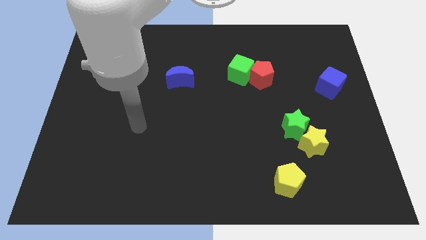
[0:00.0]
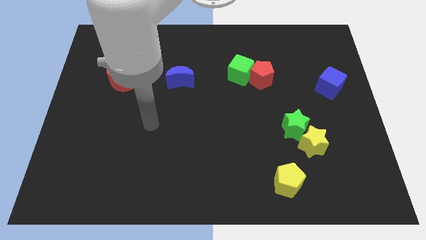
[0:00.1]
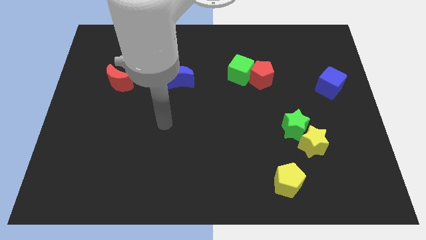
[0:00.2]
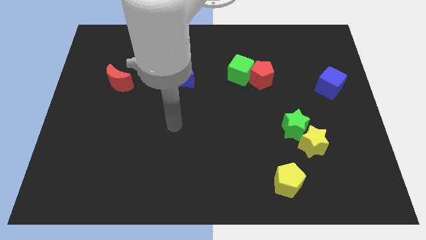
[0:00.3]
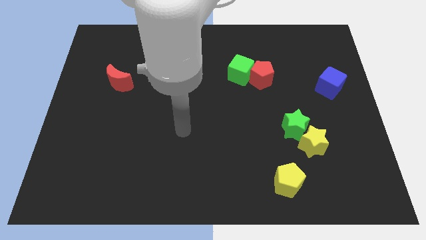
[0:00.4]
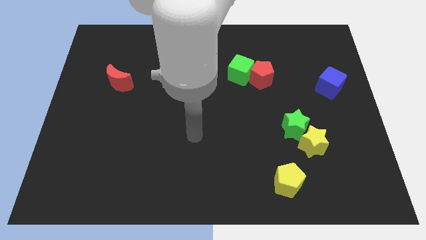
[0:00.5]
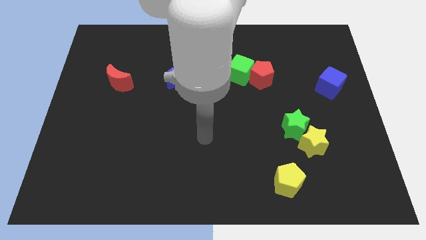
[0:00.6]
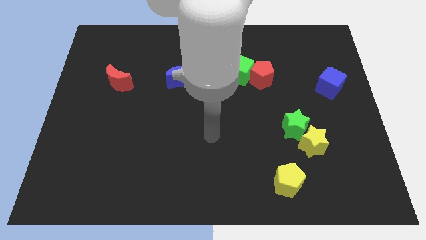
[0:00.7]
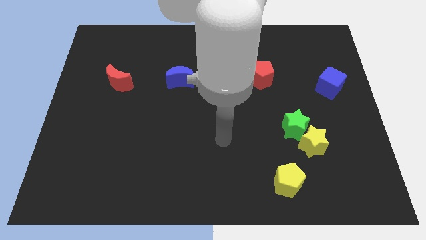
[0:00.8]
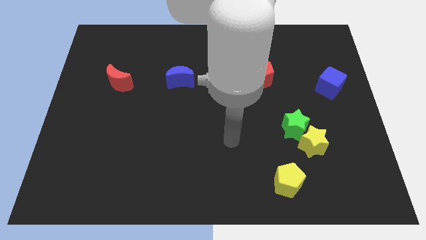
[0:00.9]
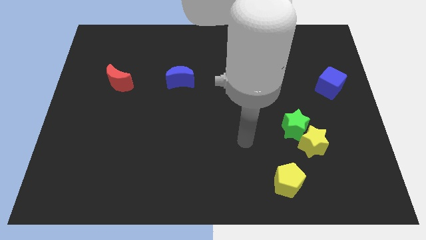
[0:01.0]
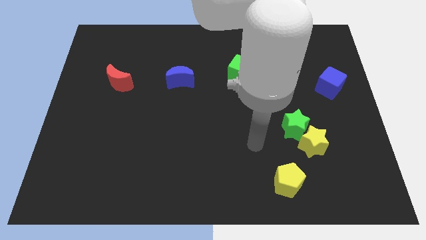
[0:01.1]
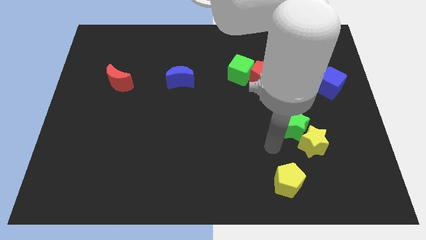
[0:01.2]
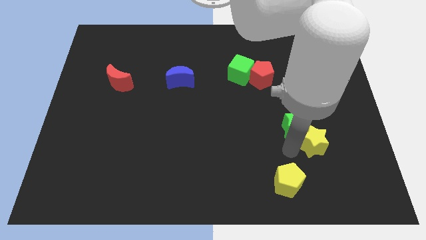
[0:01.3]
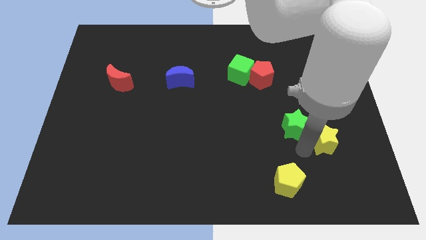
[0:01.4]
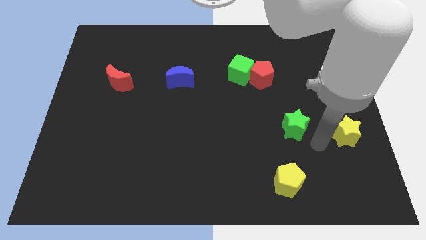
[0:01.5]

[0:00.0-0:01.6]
separate the green star from the yellow star

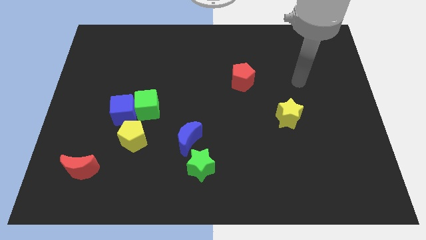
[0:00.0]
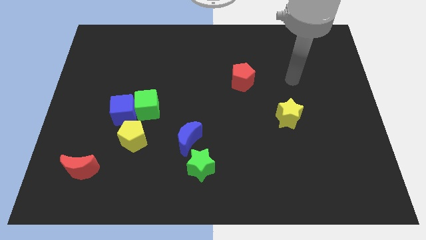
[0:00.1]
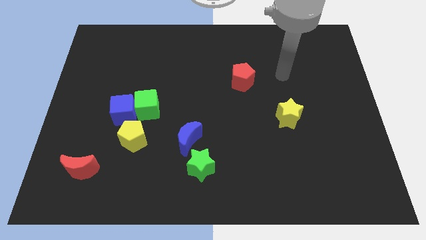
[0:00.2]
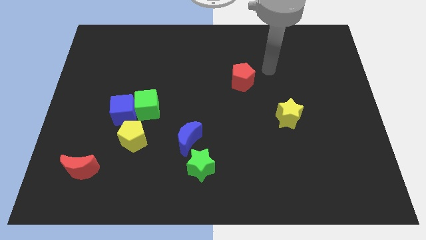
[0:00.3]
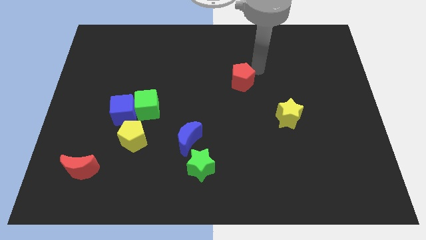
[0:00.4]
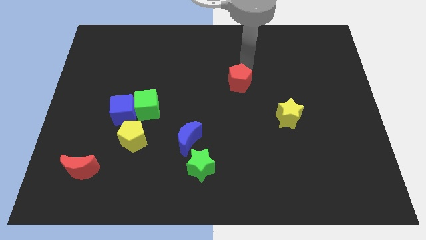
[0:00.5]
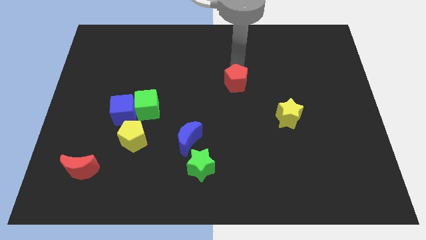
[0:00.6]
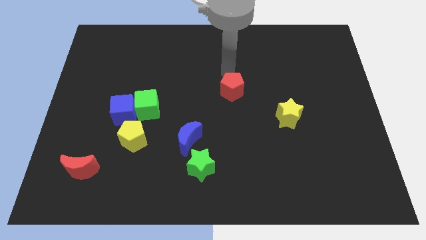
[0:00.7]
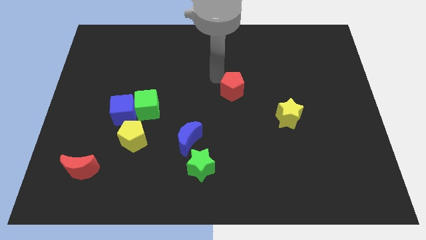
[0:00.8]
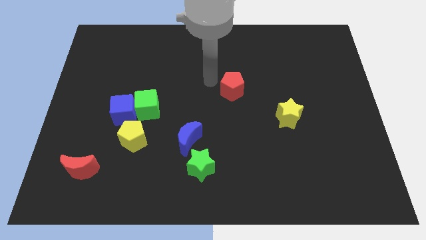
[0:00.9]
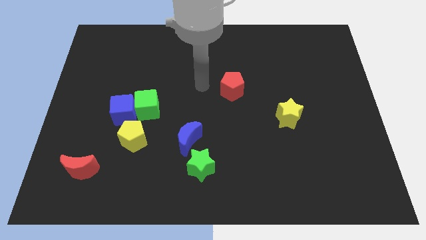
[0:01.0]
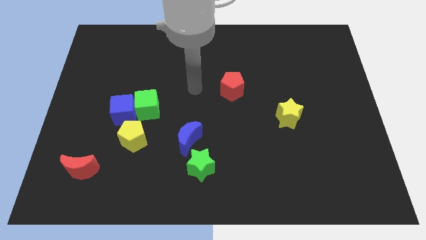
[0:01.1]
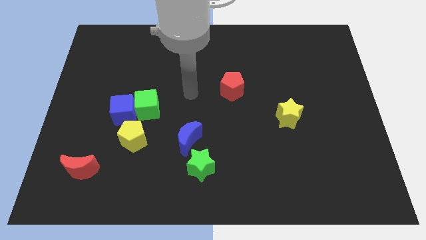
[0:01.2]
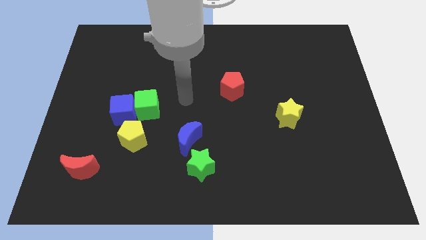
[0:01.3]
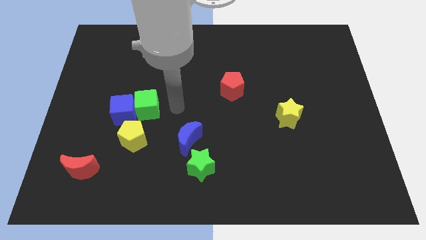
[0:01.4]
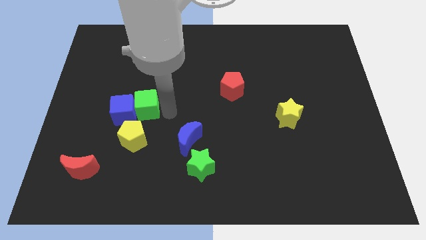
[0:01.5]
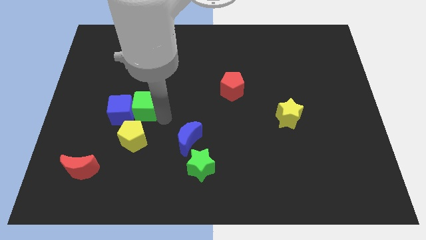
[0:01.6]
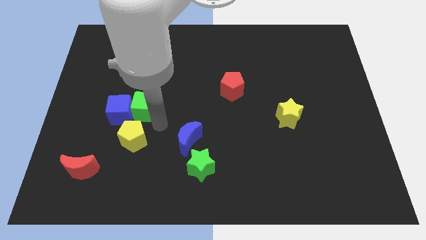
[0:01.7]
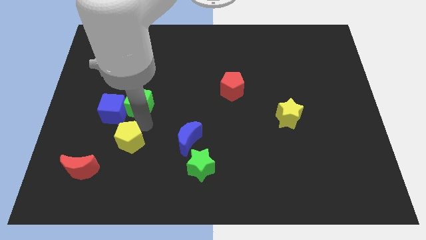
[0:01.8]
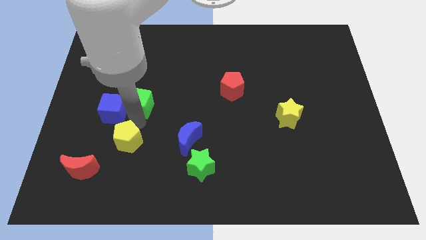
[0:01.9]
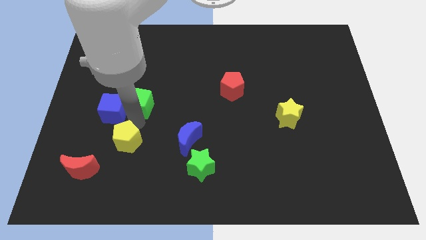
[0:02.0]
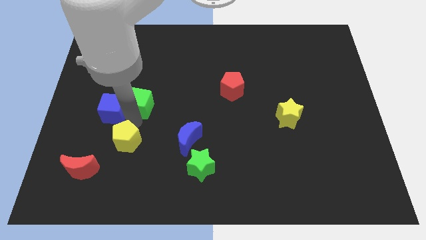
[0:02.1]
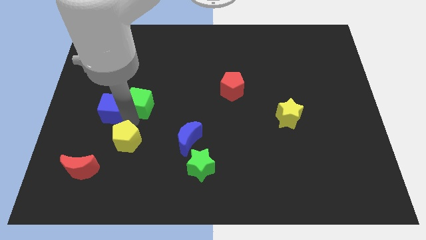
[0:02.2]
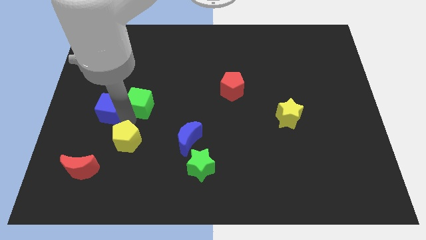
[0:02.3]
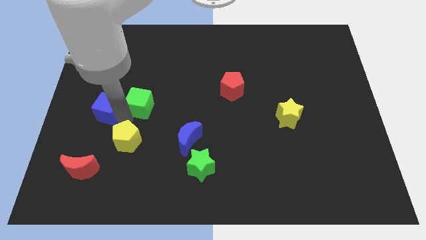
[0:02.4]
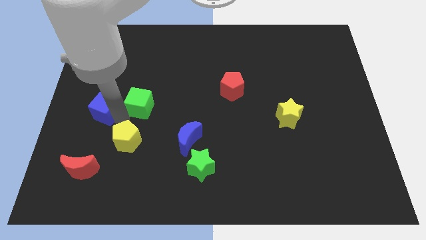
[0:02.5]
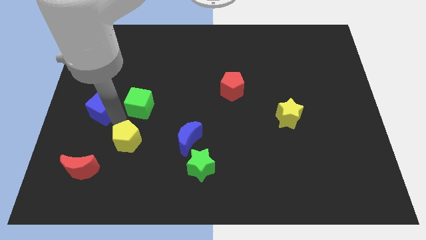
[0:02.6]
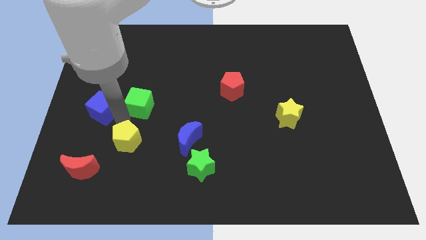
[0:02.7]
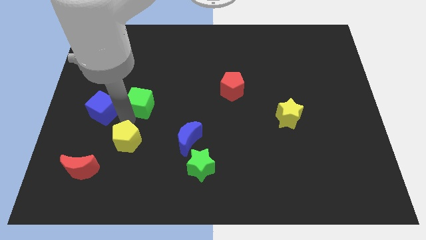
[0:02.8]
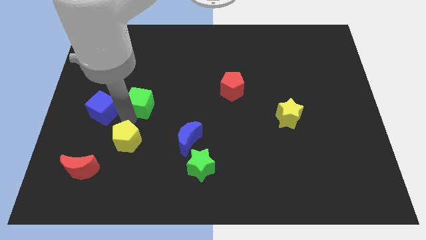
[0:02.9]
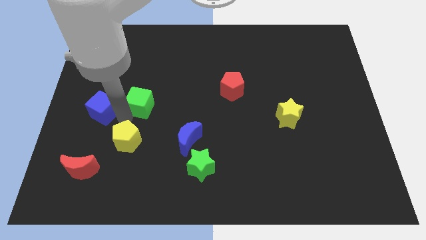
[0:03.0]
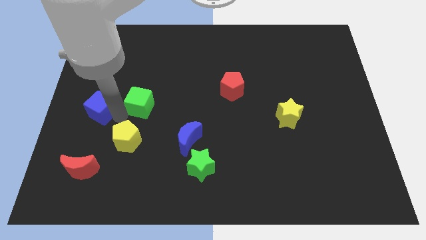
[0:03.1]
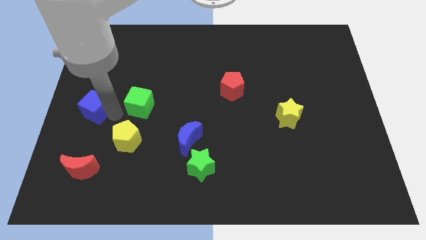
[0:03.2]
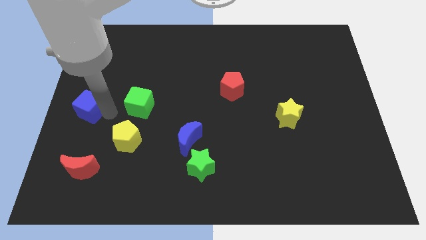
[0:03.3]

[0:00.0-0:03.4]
move the blue cube away from the green cube and yellow pentagon

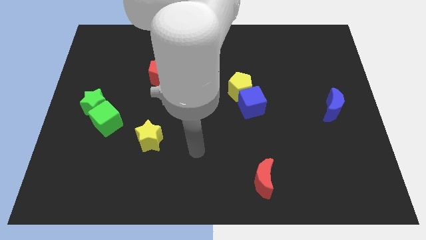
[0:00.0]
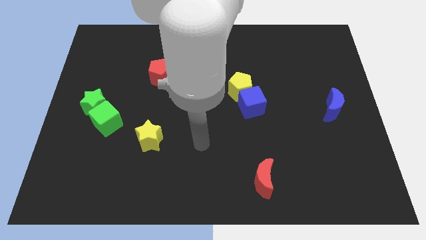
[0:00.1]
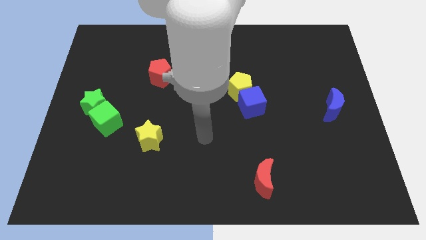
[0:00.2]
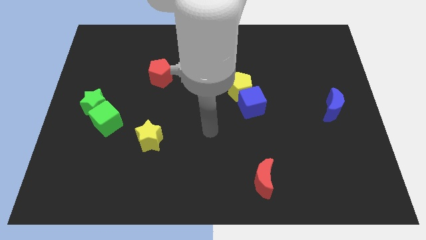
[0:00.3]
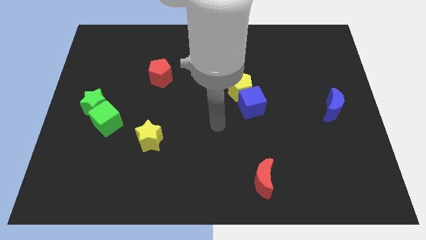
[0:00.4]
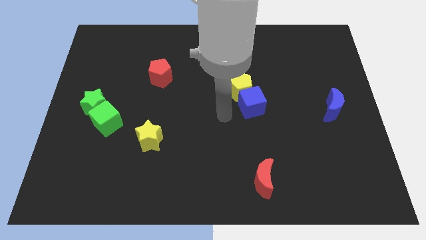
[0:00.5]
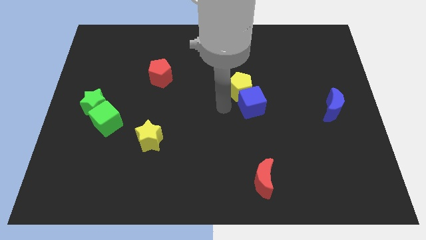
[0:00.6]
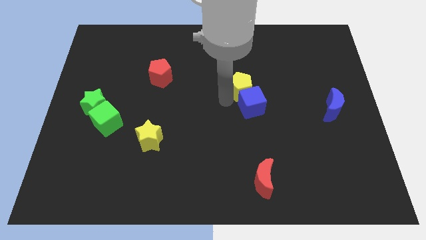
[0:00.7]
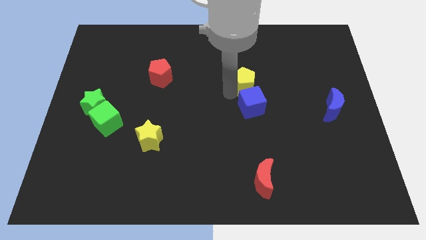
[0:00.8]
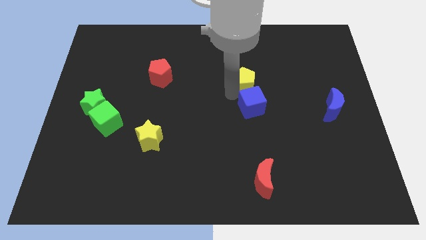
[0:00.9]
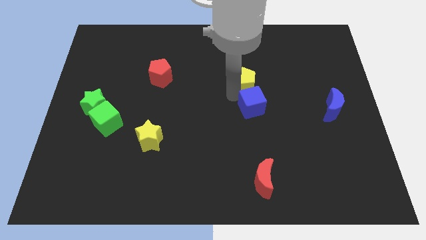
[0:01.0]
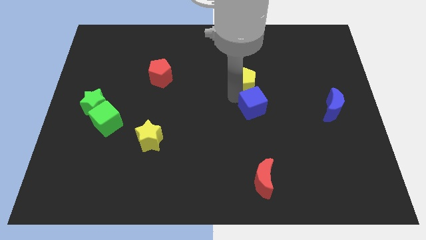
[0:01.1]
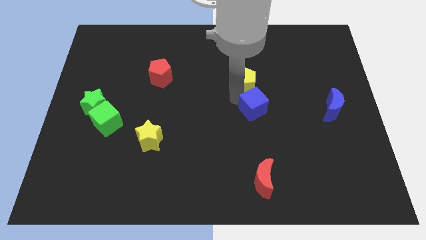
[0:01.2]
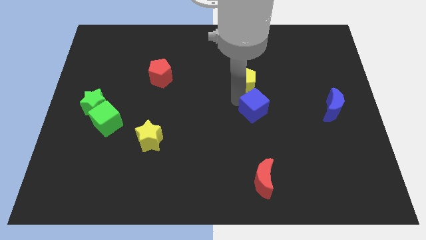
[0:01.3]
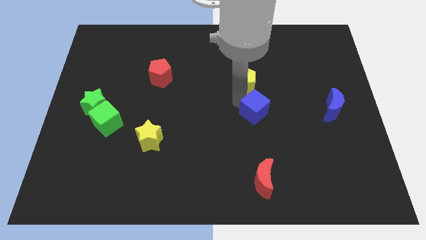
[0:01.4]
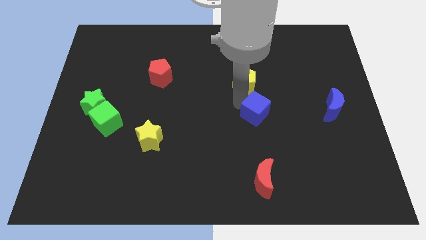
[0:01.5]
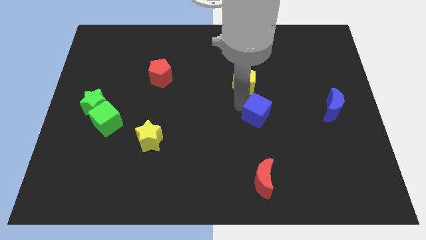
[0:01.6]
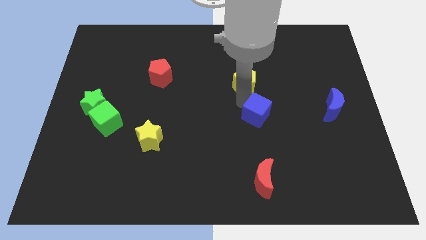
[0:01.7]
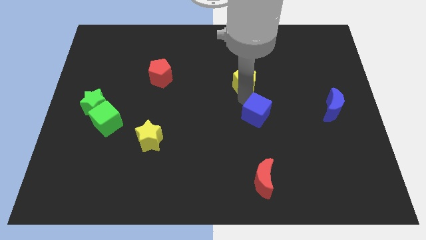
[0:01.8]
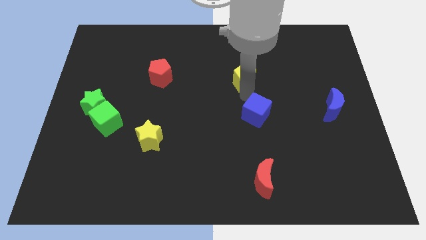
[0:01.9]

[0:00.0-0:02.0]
pull the blue cube apart from the yellow pentagon

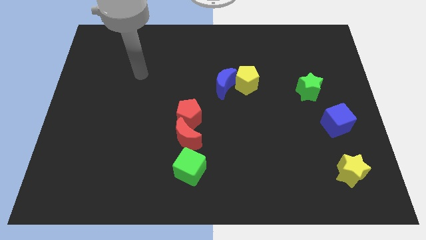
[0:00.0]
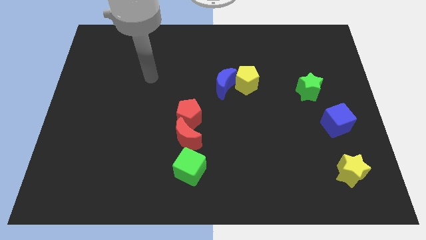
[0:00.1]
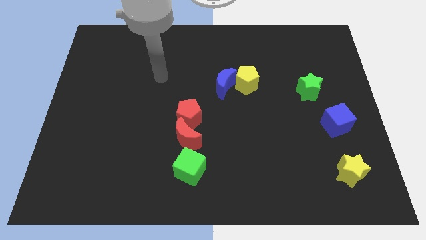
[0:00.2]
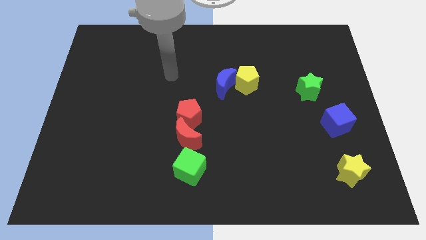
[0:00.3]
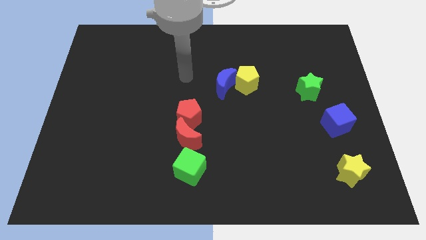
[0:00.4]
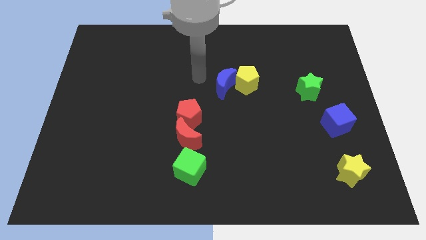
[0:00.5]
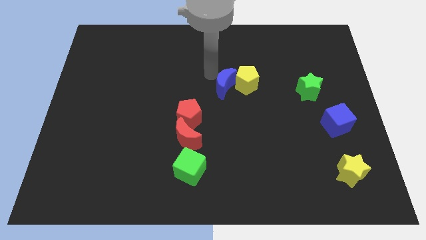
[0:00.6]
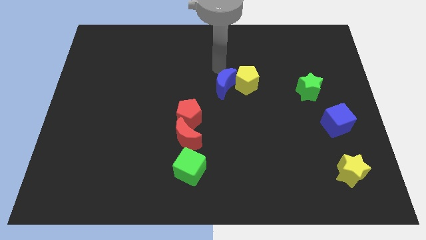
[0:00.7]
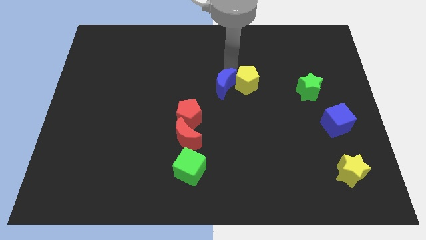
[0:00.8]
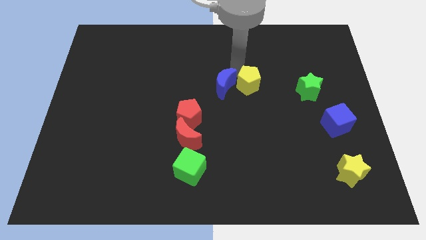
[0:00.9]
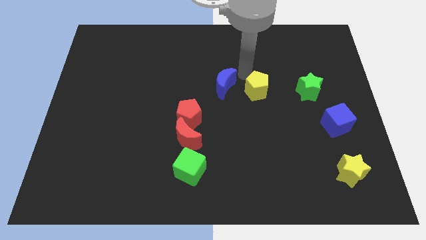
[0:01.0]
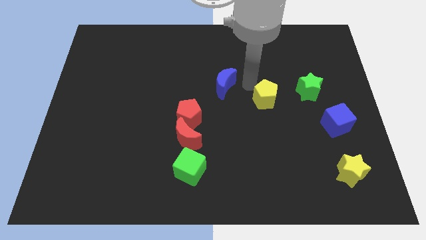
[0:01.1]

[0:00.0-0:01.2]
separate the blue moon from the yellow pentagon

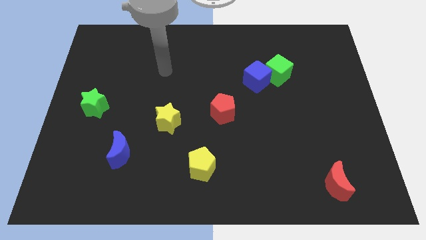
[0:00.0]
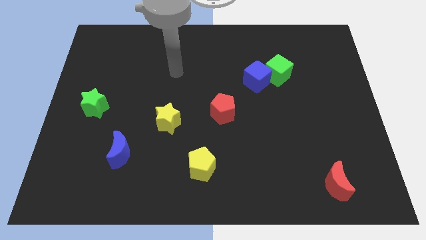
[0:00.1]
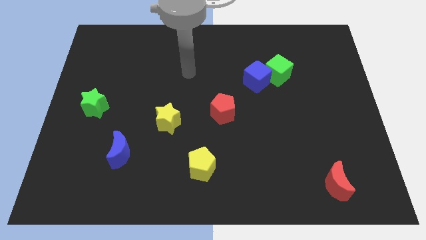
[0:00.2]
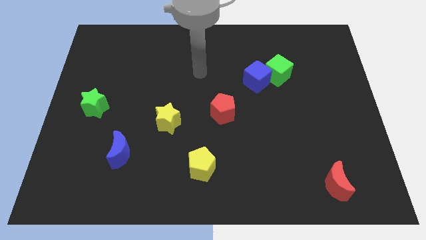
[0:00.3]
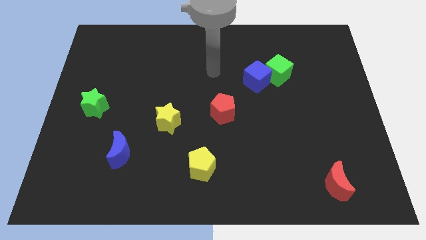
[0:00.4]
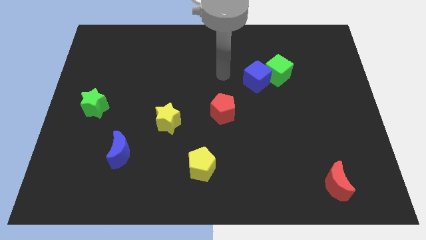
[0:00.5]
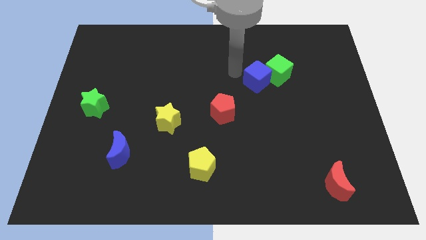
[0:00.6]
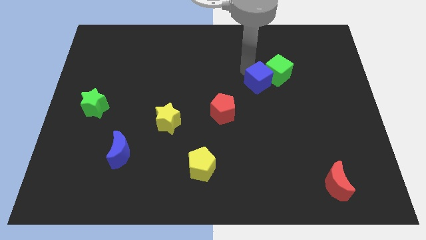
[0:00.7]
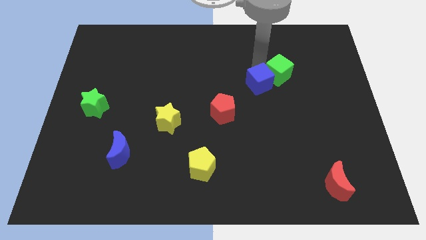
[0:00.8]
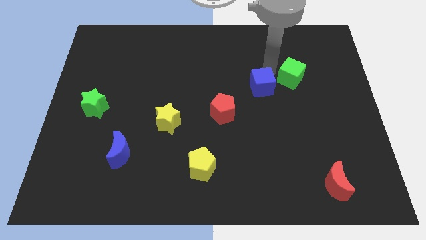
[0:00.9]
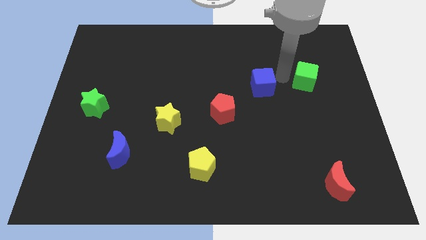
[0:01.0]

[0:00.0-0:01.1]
separate the blue cube from the green cube
